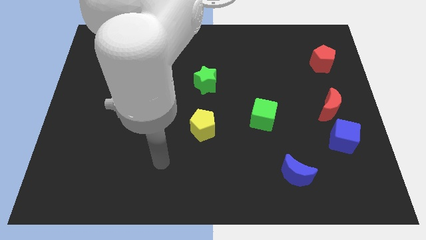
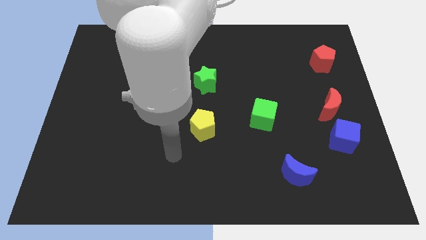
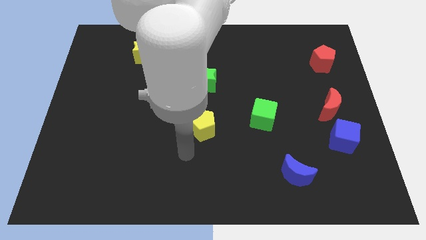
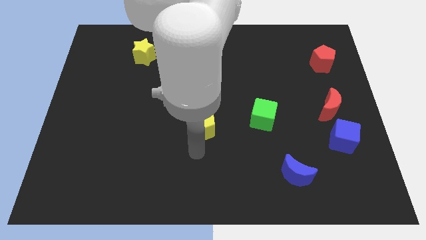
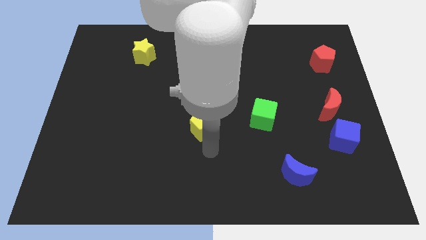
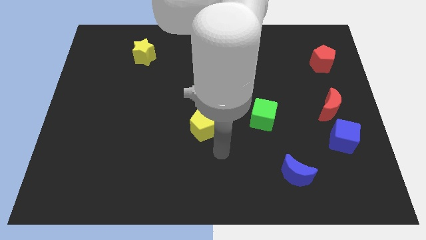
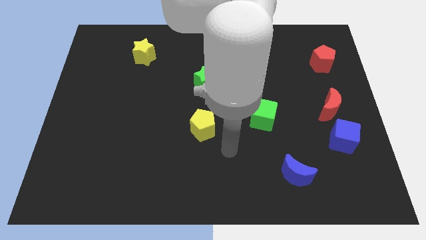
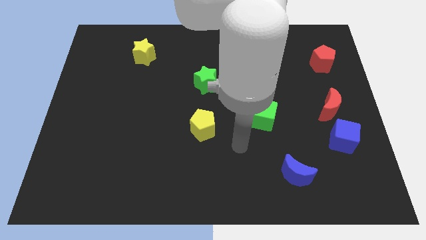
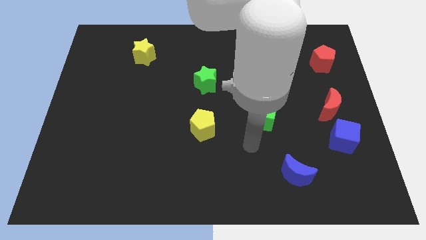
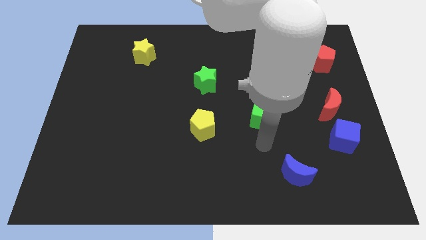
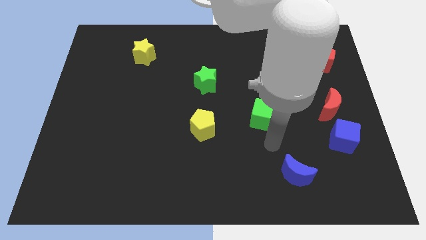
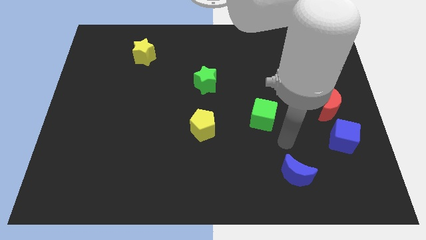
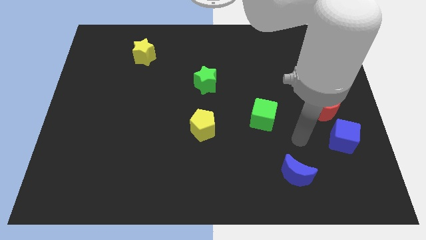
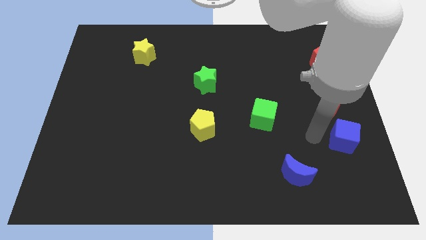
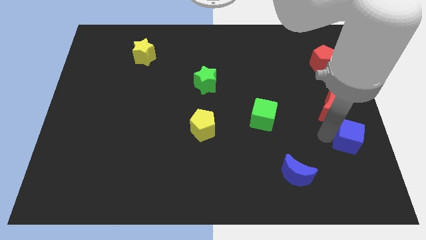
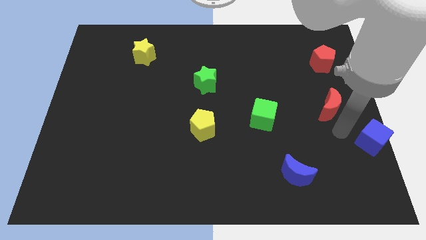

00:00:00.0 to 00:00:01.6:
separate the red moon from the blue cube

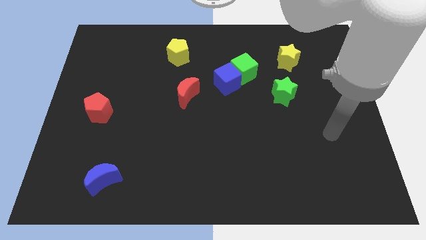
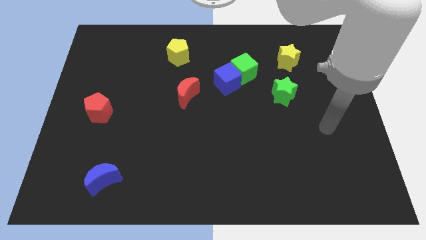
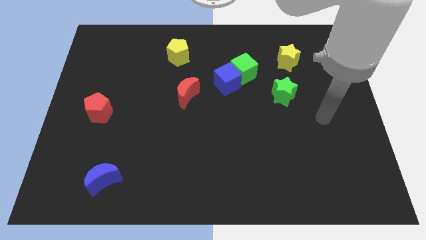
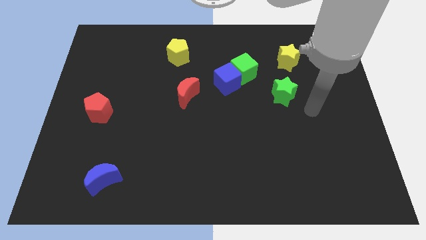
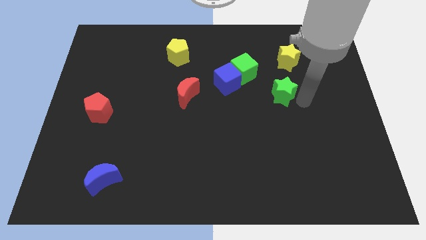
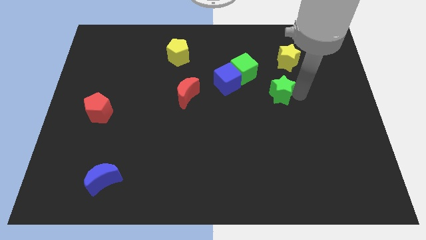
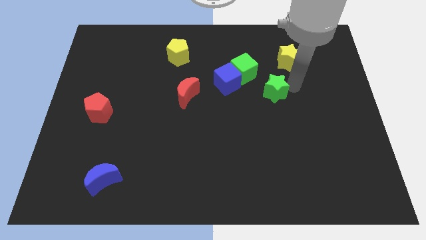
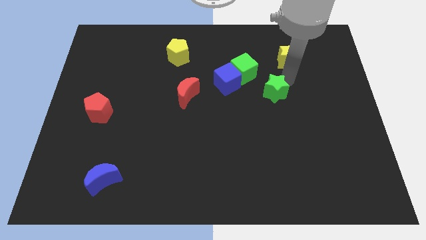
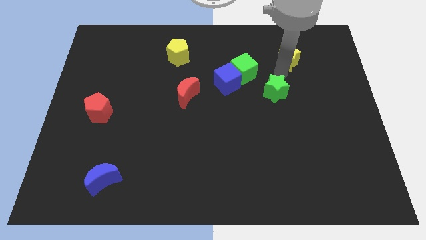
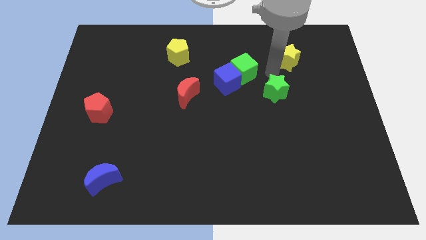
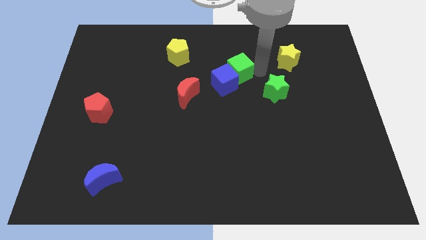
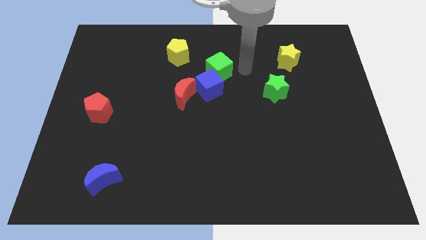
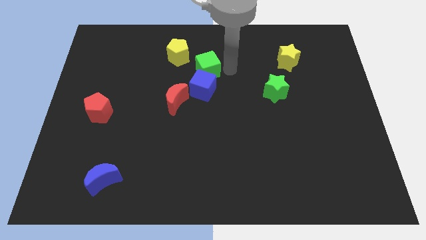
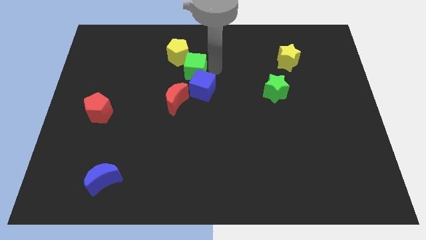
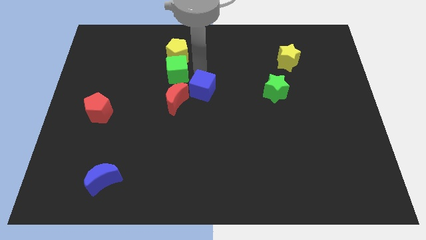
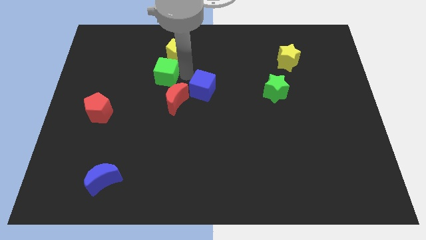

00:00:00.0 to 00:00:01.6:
pull the blue cube apart from the green cube

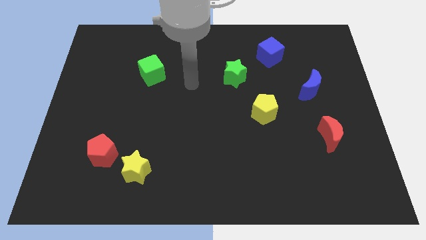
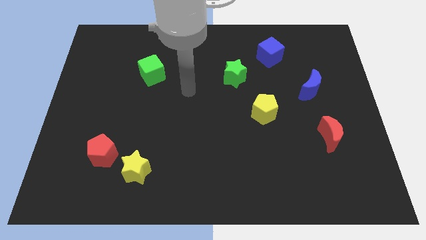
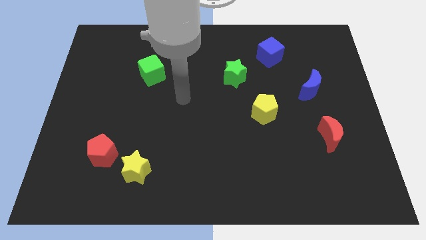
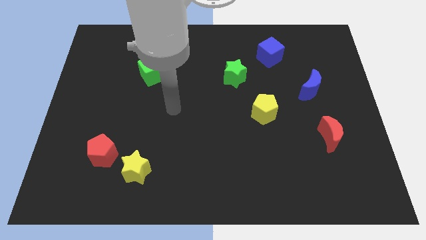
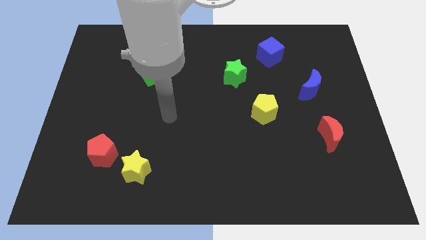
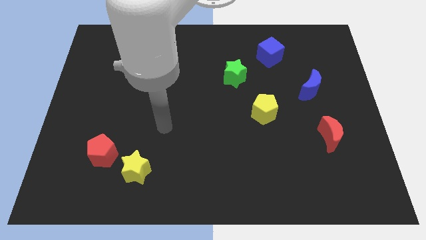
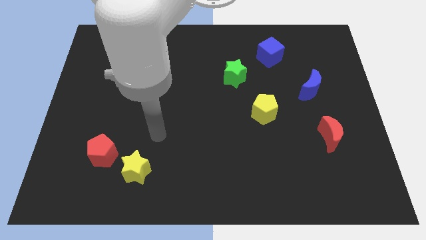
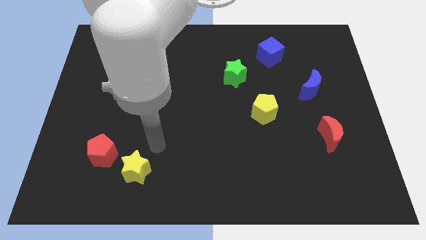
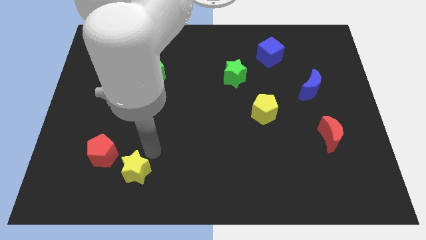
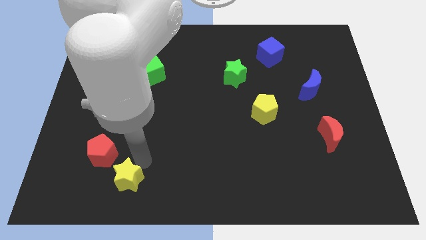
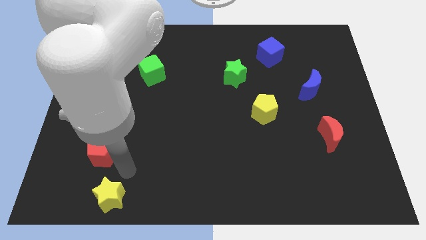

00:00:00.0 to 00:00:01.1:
move the red pentagon away from the yellow star

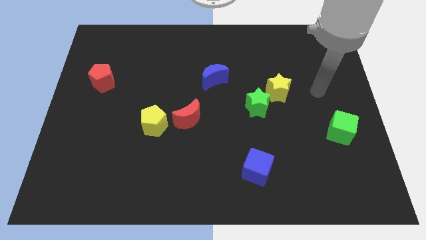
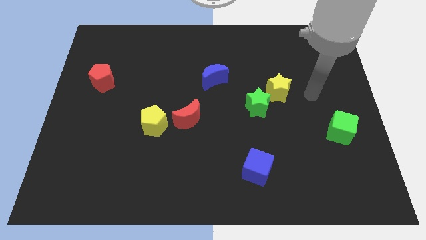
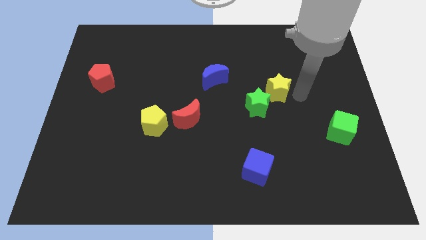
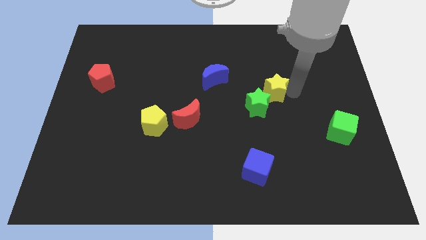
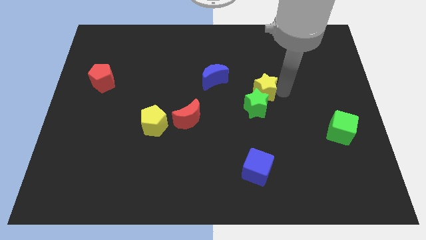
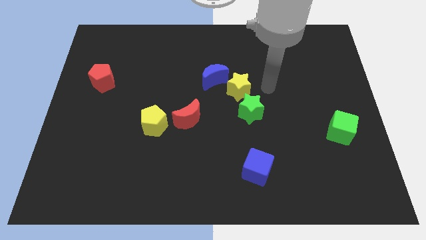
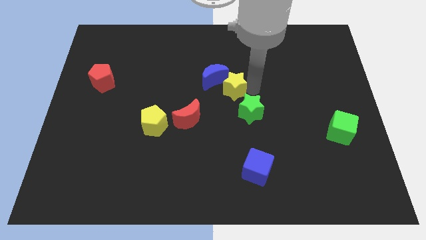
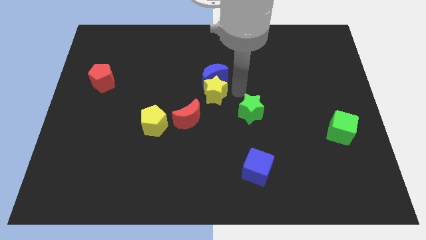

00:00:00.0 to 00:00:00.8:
pull the green star apart from the yellow star

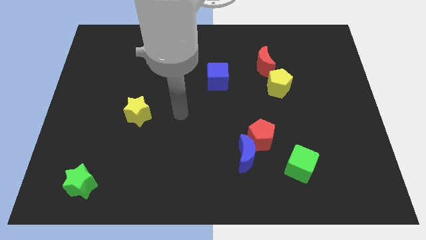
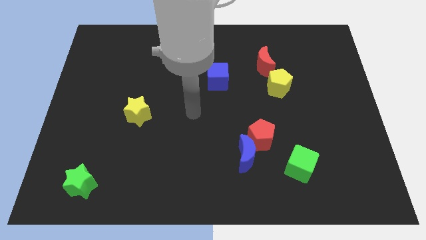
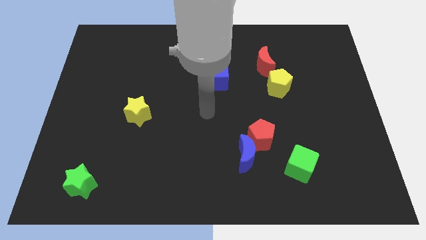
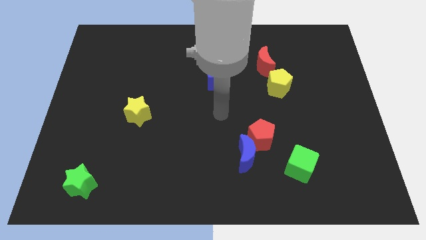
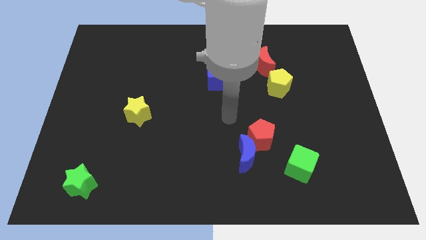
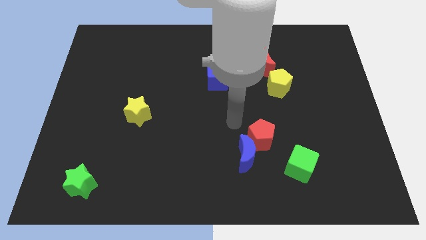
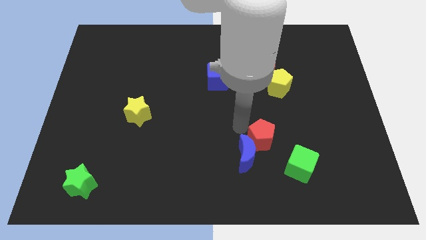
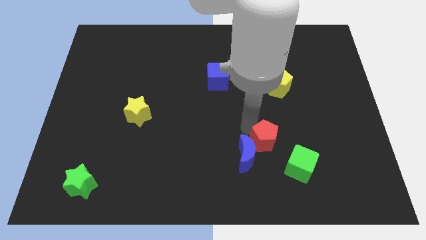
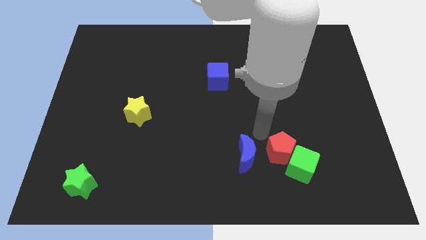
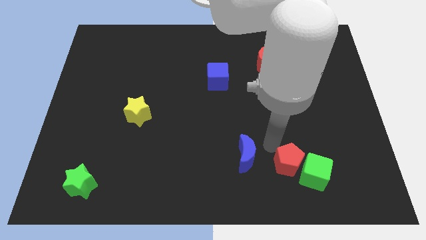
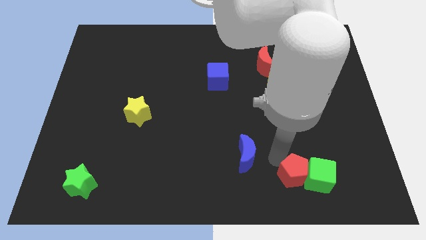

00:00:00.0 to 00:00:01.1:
separate the blue moon from the red pentagon

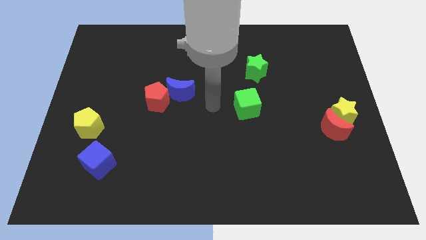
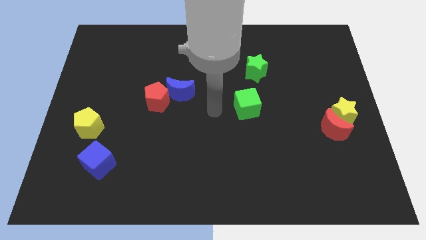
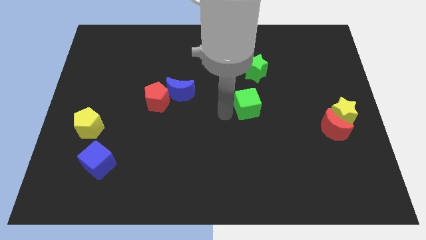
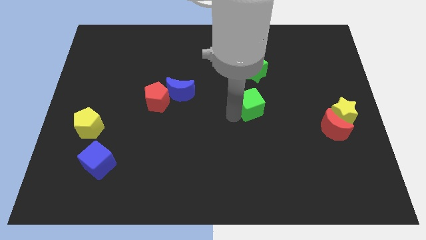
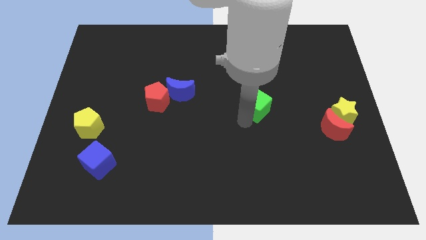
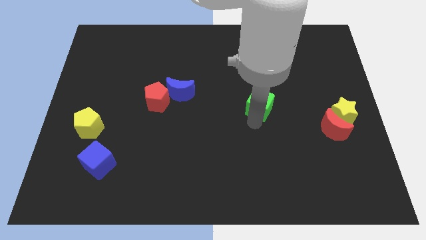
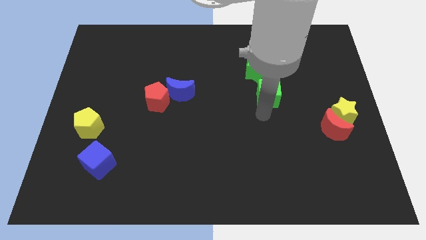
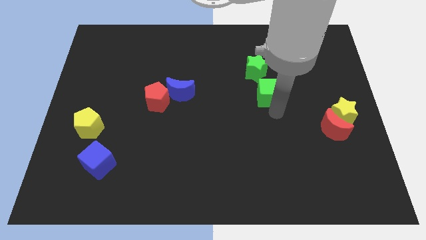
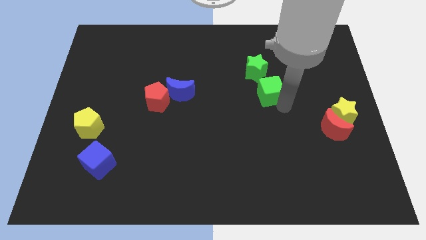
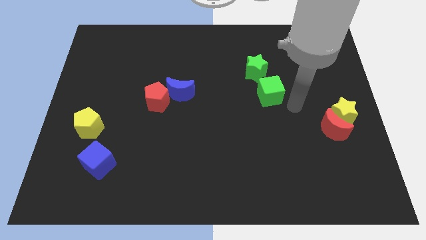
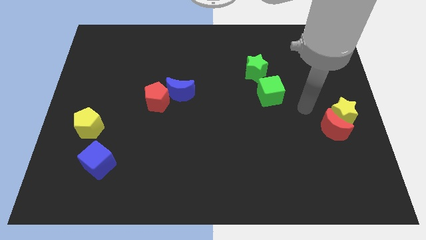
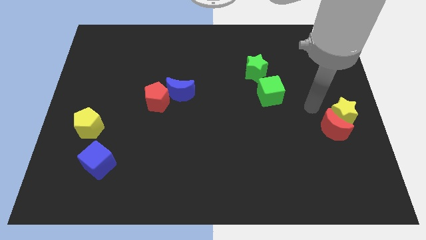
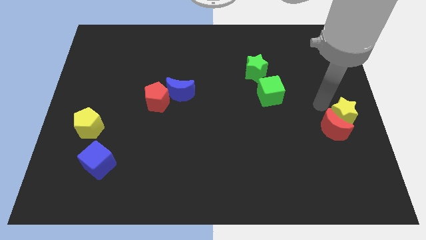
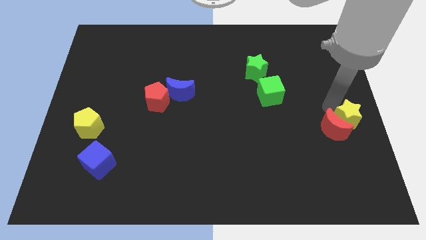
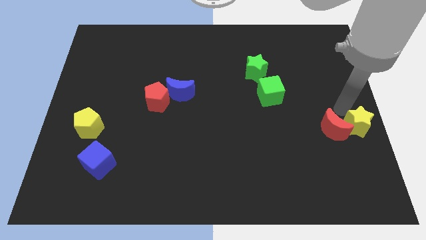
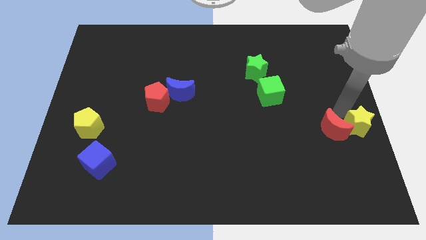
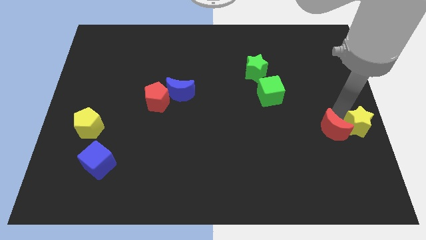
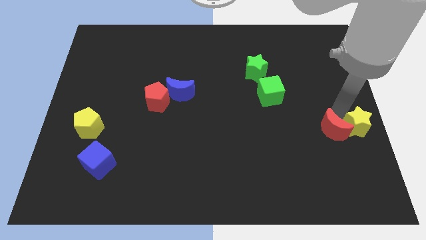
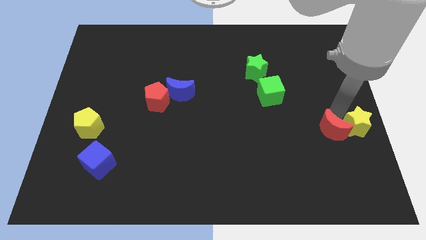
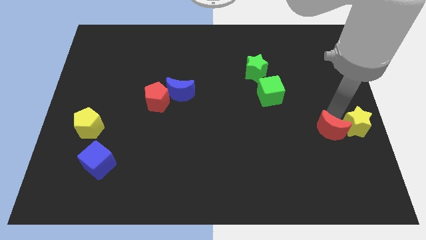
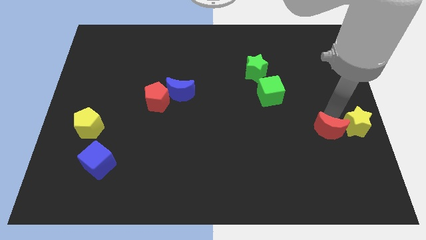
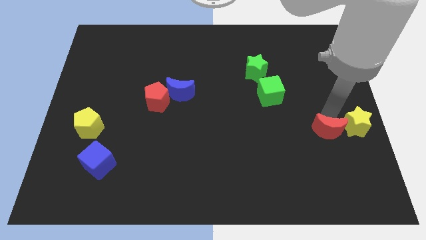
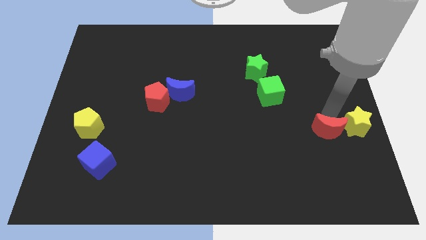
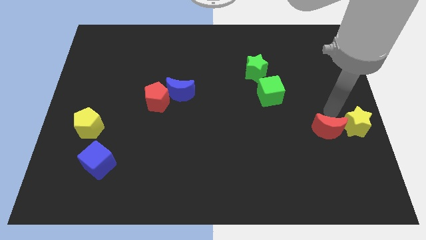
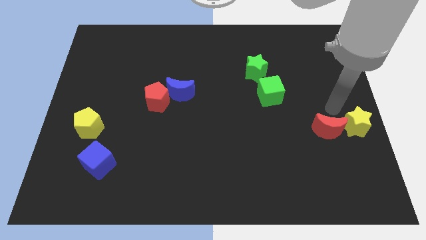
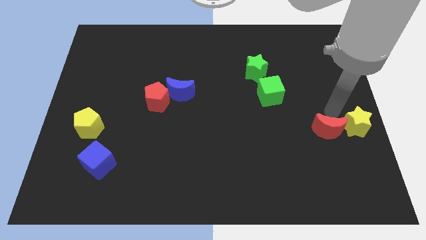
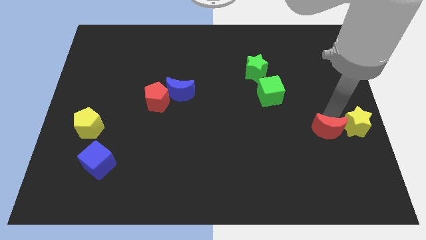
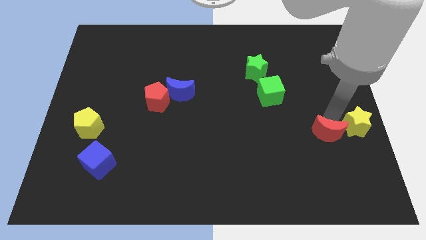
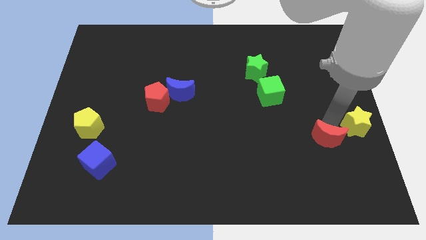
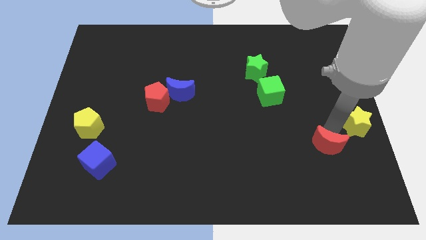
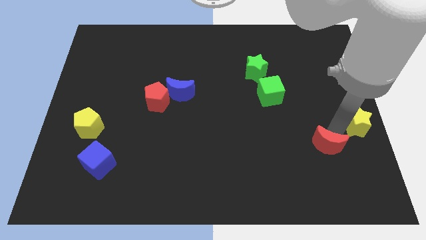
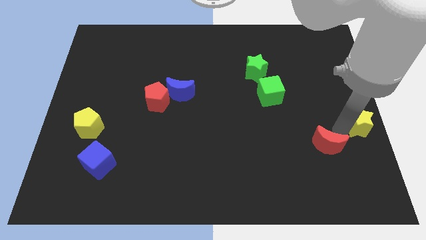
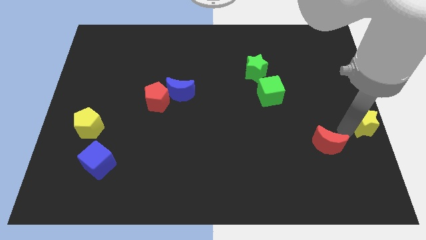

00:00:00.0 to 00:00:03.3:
separate the red moon from the yellow star

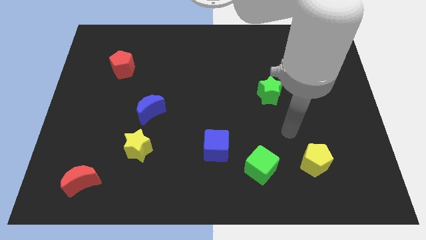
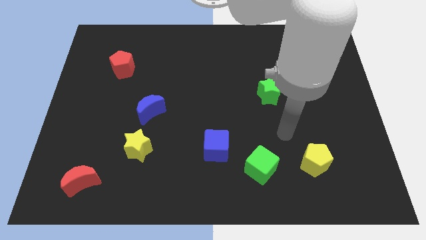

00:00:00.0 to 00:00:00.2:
move the blue cube away from the green cube
